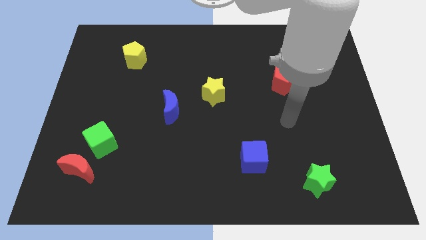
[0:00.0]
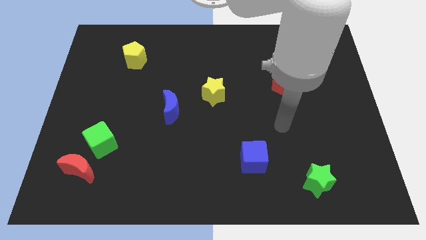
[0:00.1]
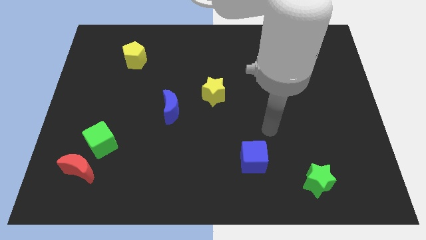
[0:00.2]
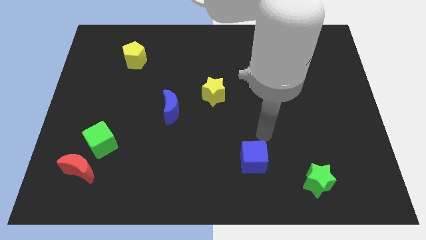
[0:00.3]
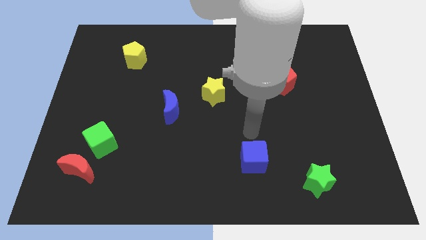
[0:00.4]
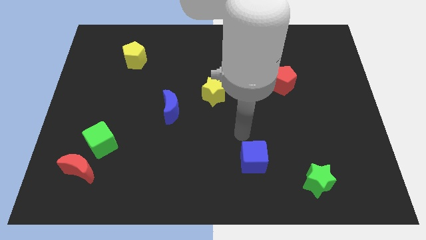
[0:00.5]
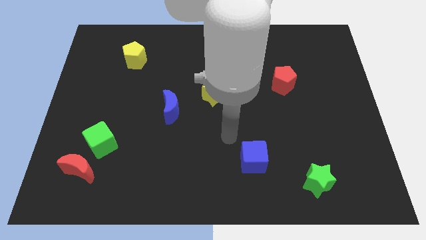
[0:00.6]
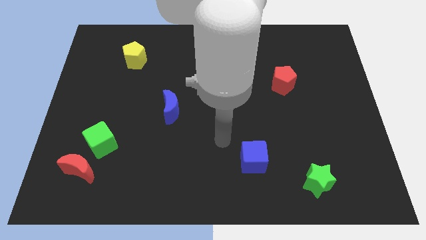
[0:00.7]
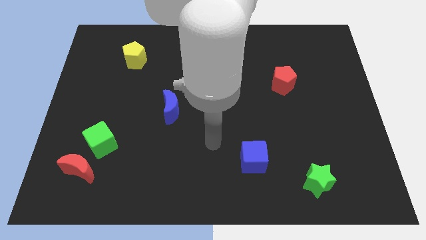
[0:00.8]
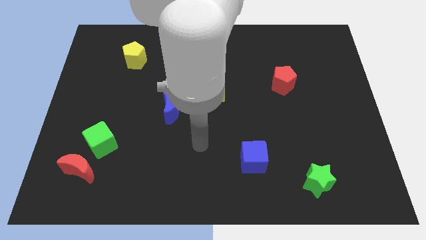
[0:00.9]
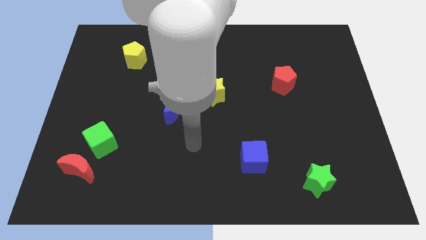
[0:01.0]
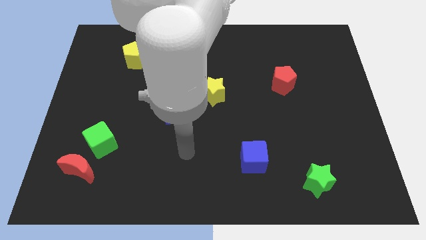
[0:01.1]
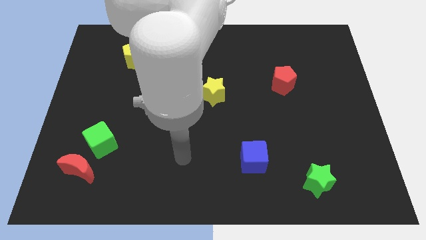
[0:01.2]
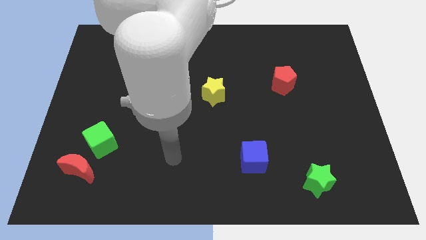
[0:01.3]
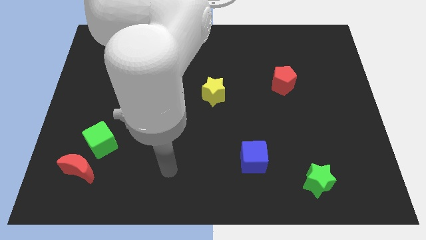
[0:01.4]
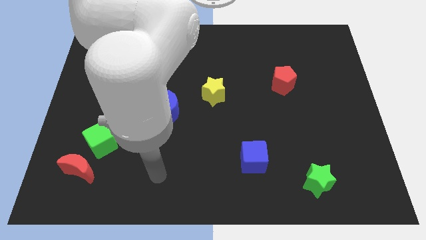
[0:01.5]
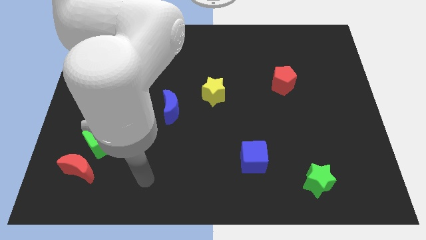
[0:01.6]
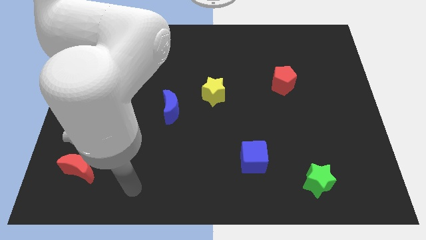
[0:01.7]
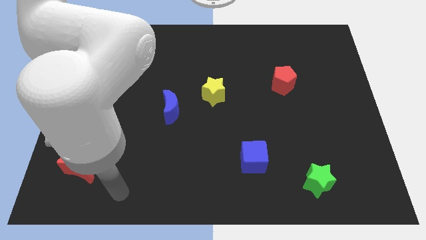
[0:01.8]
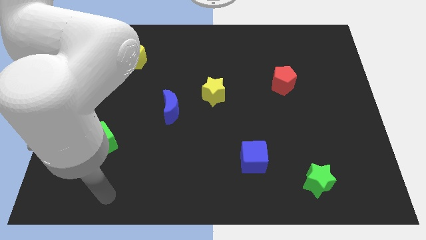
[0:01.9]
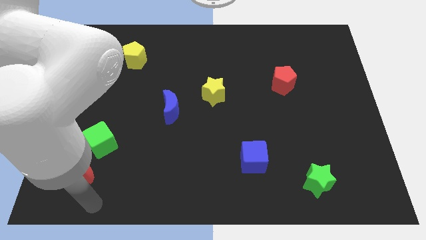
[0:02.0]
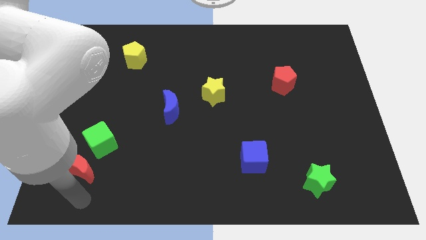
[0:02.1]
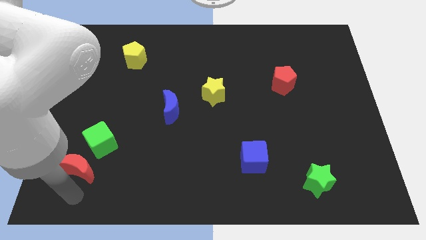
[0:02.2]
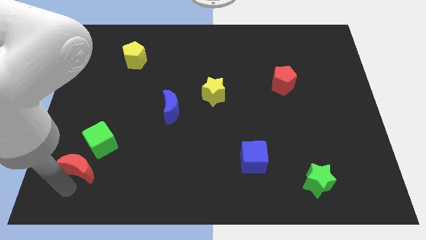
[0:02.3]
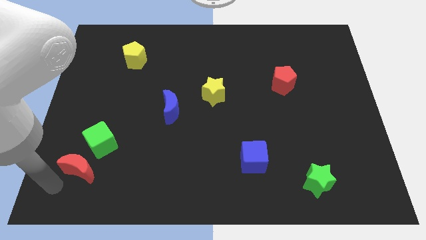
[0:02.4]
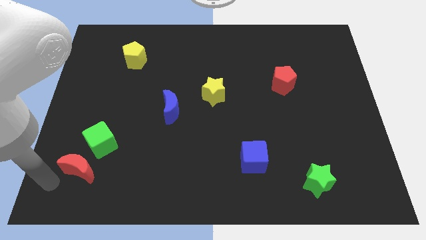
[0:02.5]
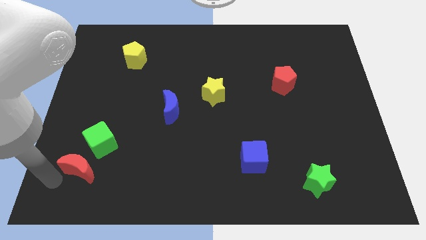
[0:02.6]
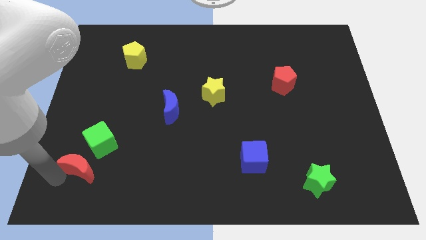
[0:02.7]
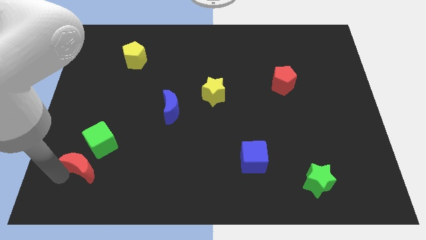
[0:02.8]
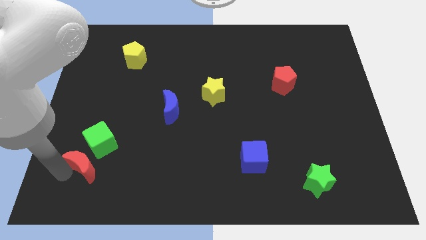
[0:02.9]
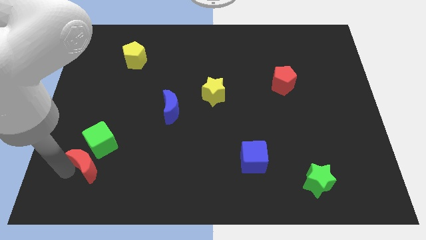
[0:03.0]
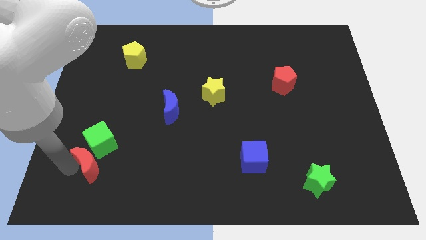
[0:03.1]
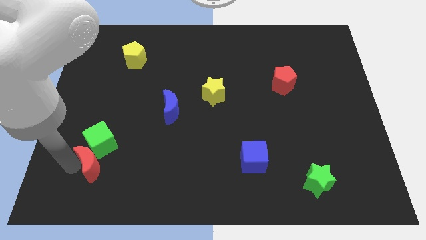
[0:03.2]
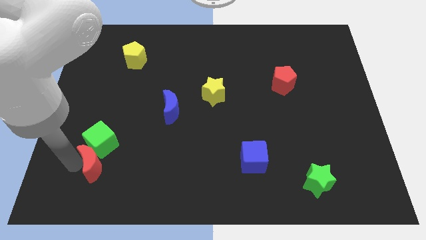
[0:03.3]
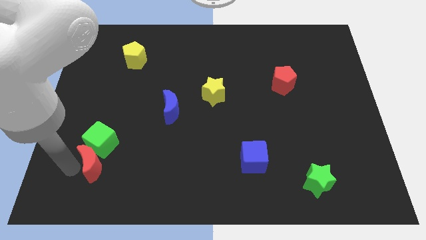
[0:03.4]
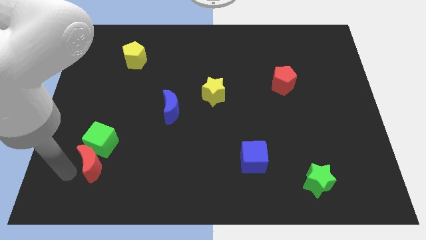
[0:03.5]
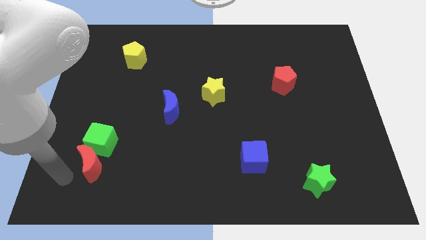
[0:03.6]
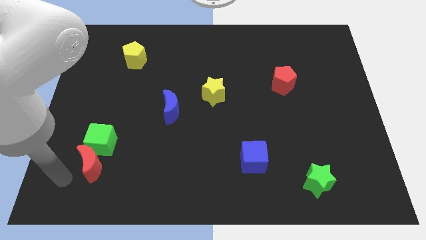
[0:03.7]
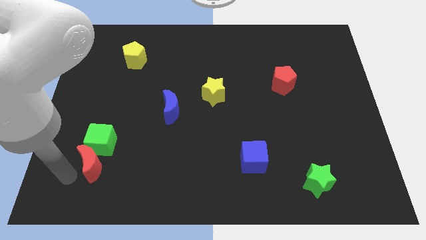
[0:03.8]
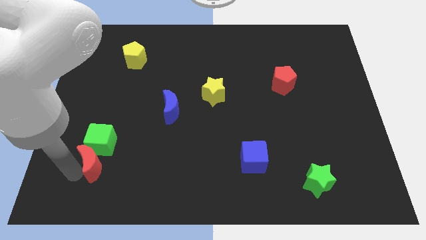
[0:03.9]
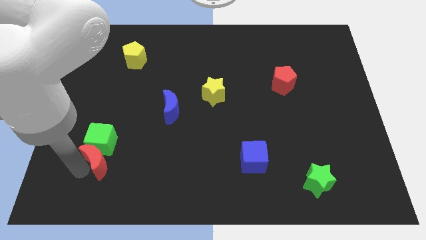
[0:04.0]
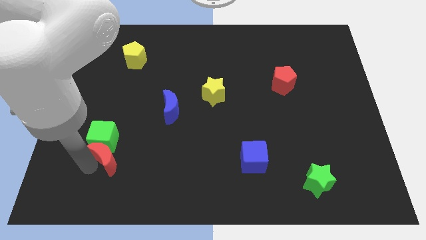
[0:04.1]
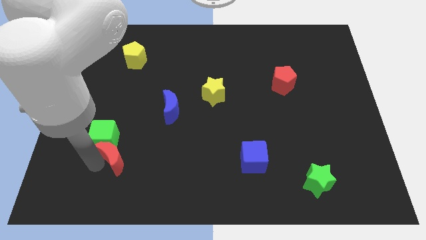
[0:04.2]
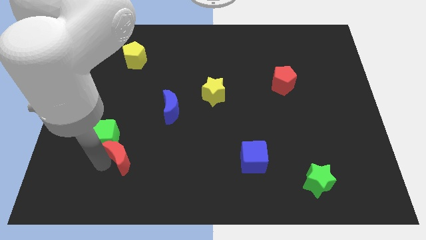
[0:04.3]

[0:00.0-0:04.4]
slightly move the red moon upwards and right diagonally

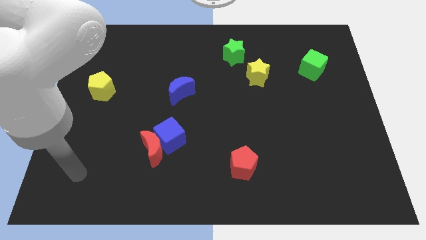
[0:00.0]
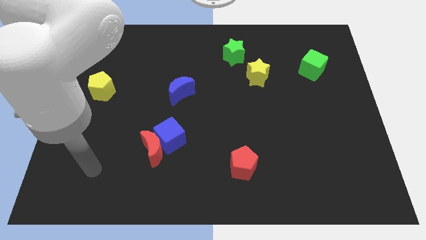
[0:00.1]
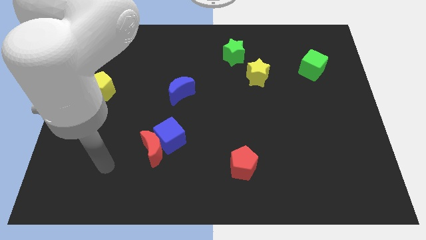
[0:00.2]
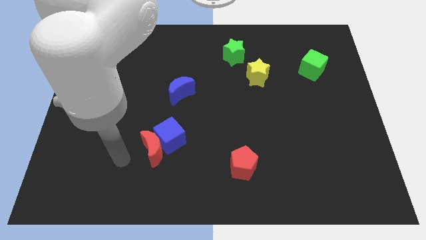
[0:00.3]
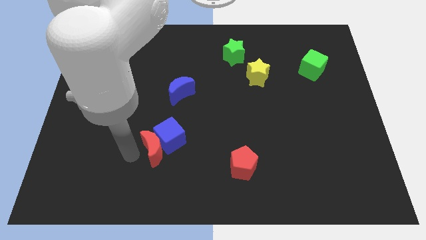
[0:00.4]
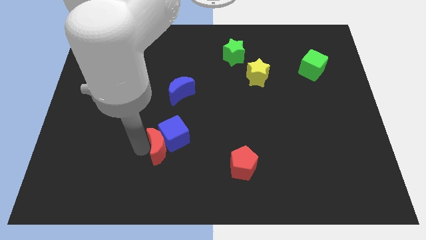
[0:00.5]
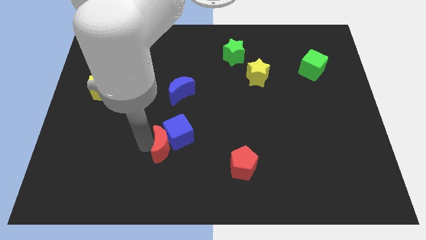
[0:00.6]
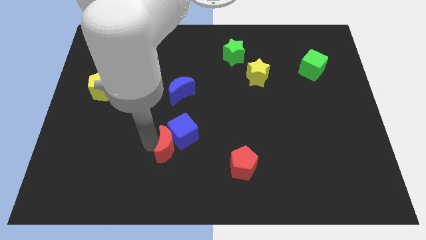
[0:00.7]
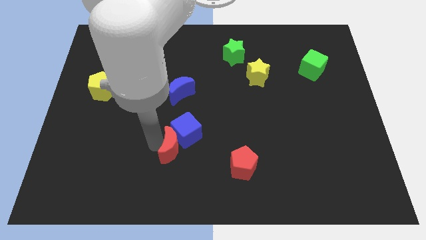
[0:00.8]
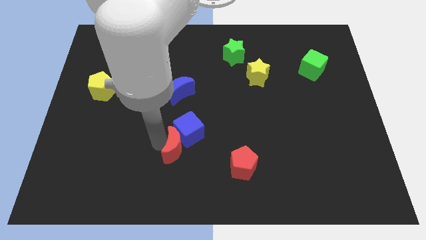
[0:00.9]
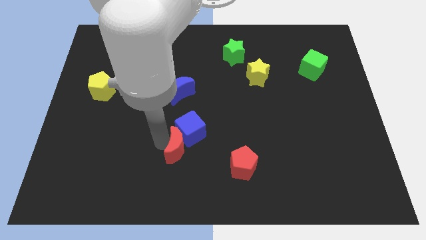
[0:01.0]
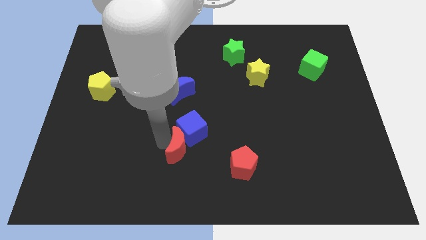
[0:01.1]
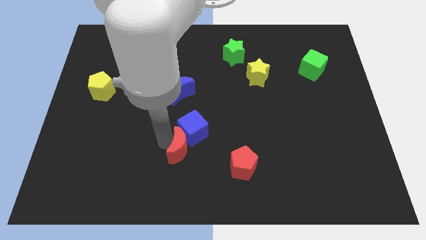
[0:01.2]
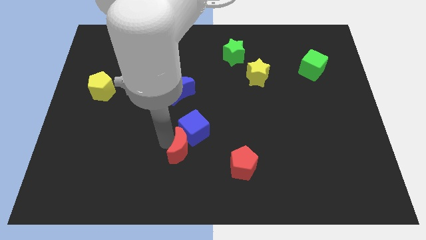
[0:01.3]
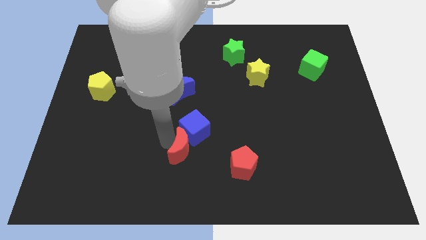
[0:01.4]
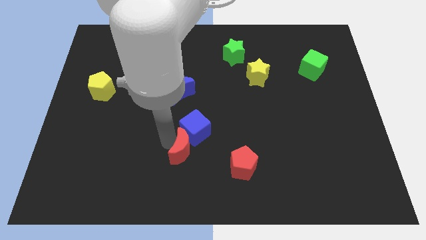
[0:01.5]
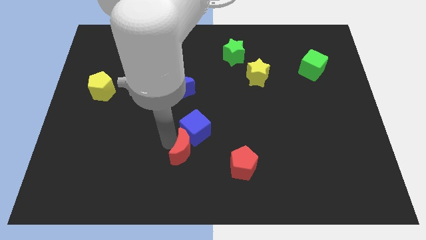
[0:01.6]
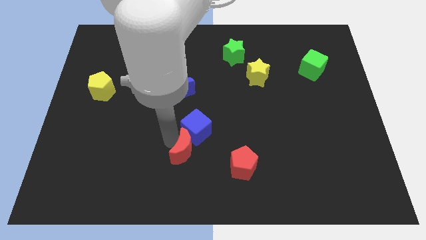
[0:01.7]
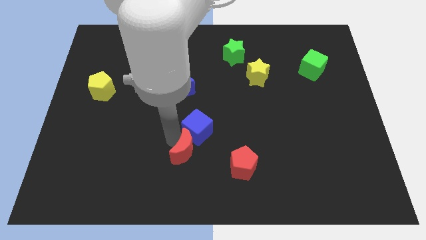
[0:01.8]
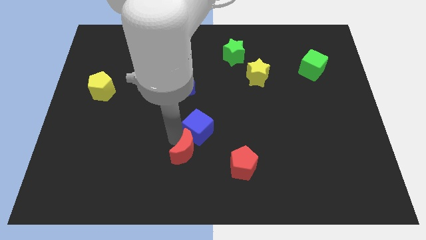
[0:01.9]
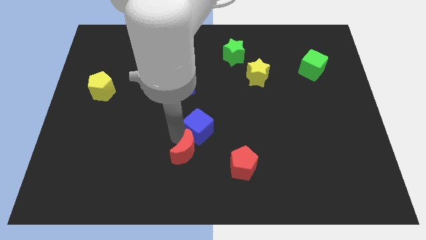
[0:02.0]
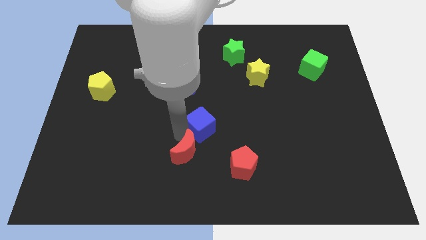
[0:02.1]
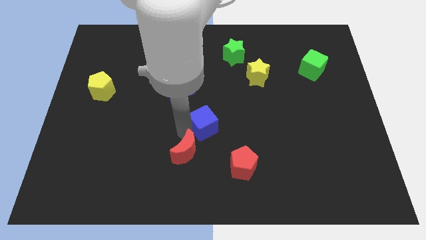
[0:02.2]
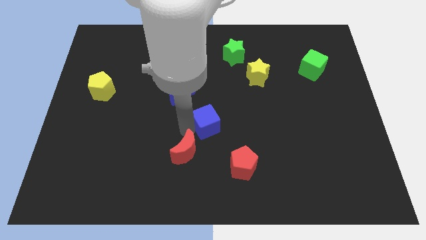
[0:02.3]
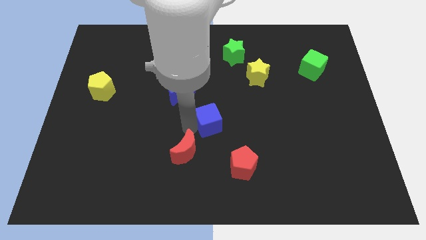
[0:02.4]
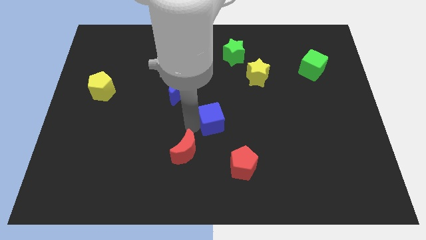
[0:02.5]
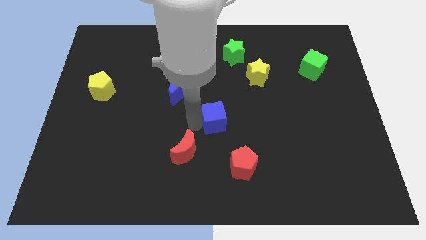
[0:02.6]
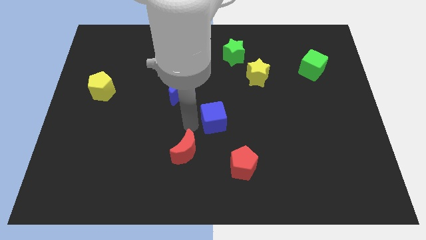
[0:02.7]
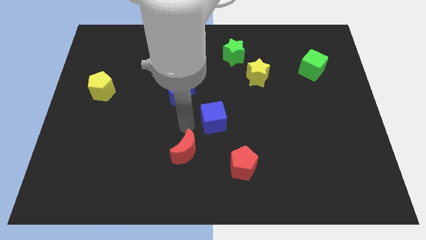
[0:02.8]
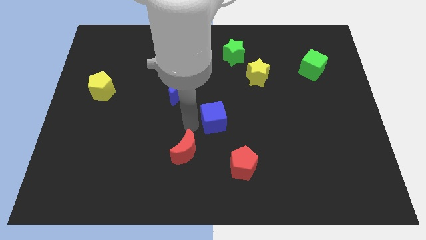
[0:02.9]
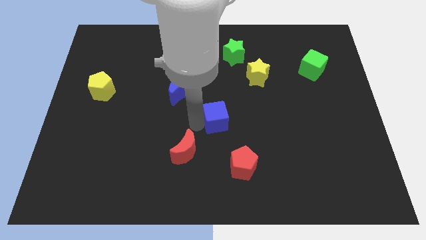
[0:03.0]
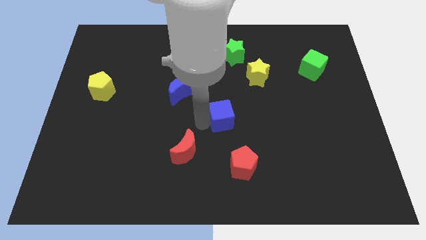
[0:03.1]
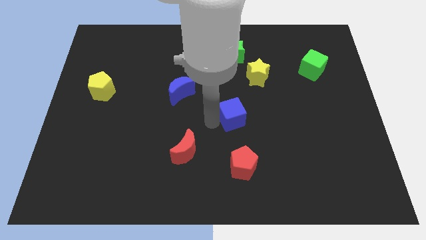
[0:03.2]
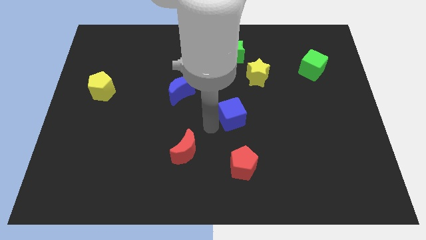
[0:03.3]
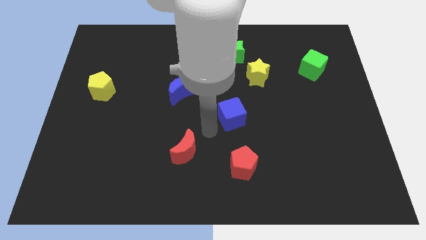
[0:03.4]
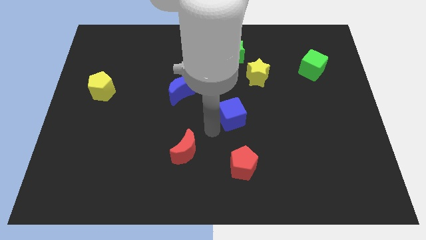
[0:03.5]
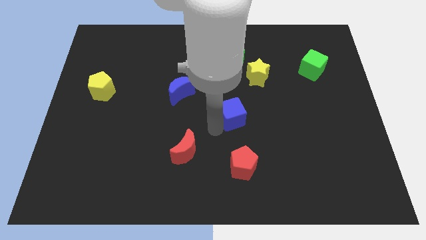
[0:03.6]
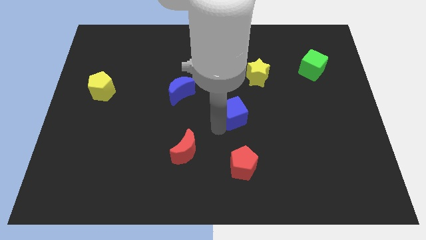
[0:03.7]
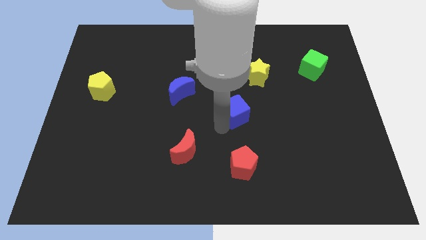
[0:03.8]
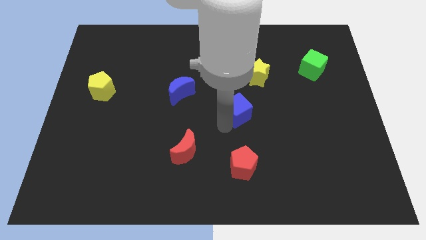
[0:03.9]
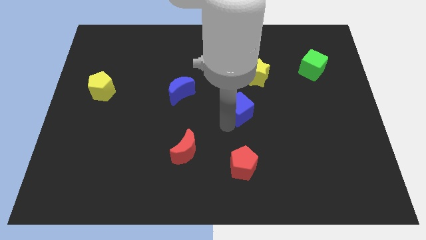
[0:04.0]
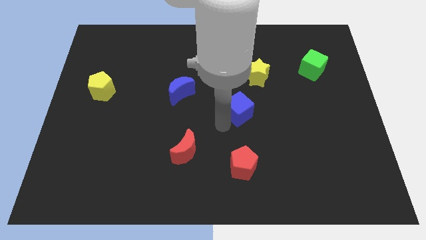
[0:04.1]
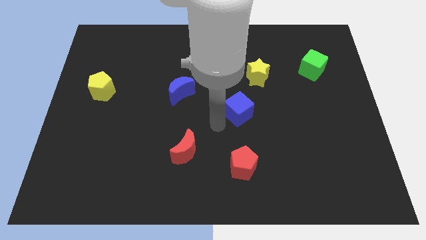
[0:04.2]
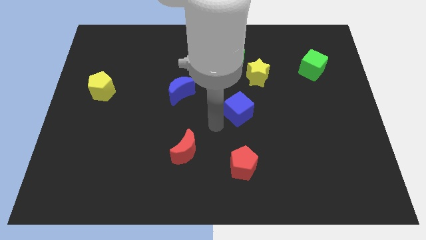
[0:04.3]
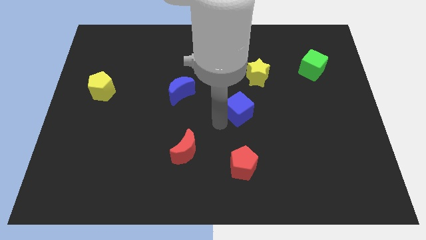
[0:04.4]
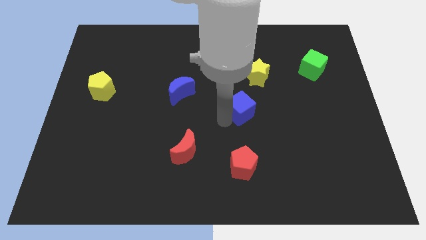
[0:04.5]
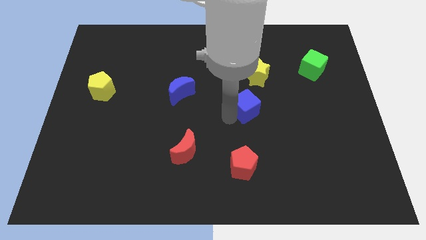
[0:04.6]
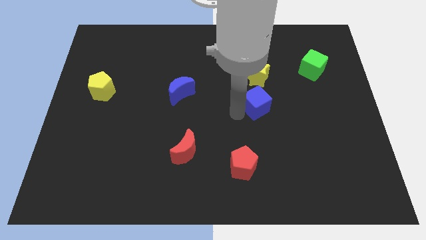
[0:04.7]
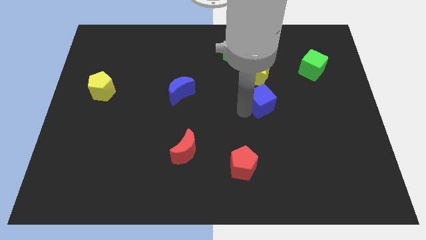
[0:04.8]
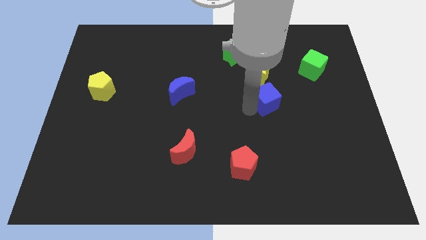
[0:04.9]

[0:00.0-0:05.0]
move the blue cube diagonally up and to the right
